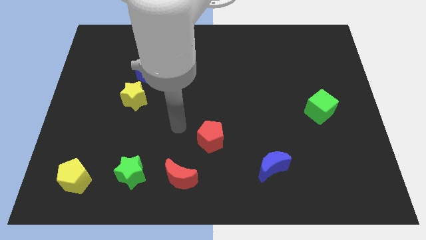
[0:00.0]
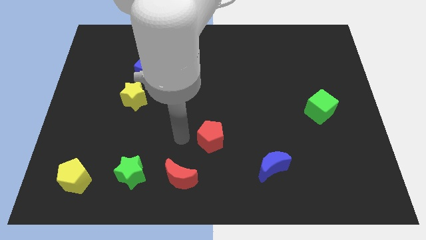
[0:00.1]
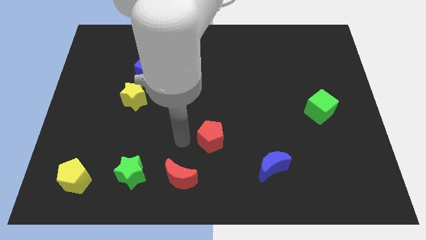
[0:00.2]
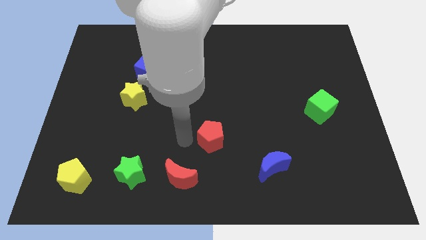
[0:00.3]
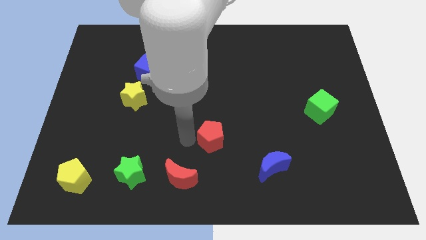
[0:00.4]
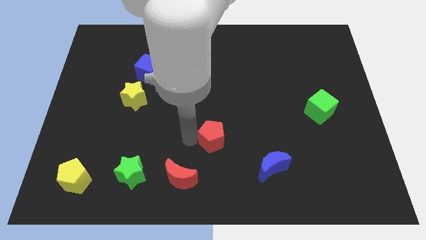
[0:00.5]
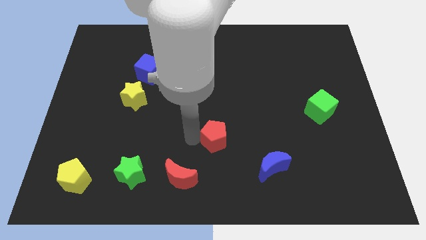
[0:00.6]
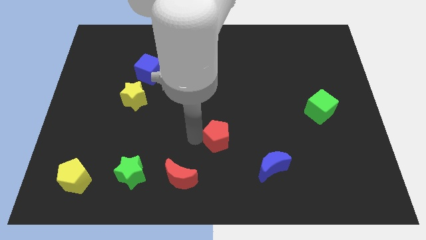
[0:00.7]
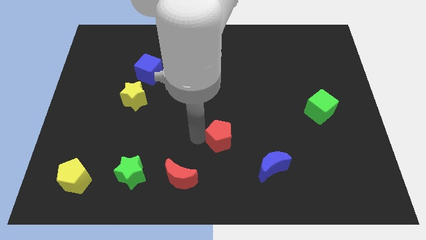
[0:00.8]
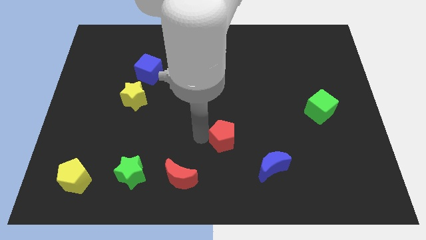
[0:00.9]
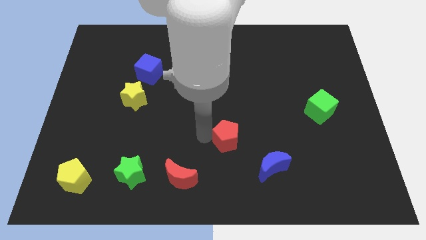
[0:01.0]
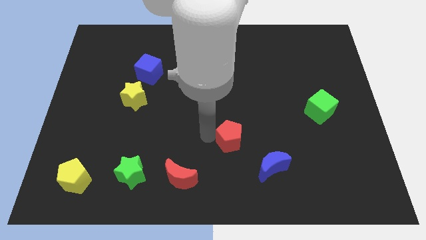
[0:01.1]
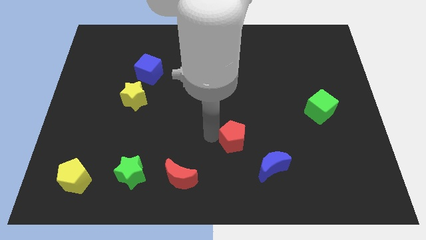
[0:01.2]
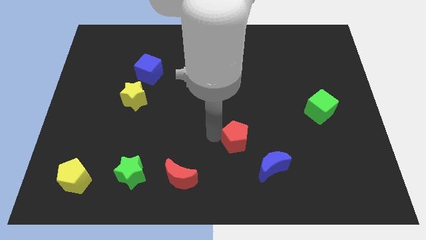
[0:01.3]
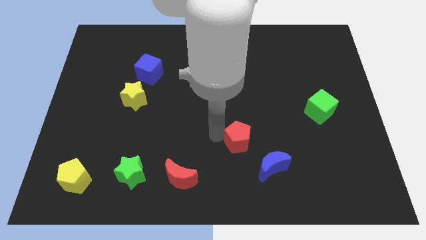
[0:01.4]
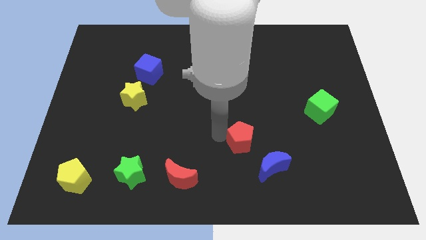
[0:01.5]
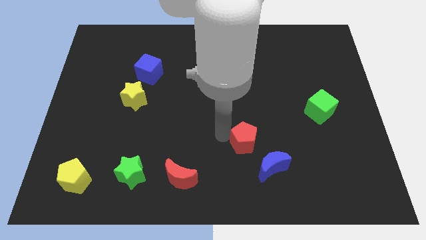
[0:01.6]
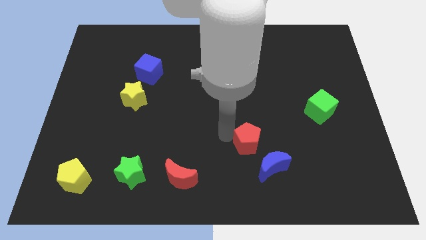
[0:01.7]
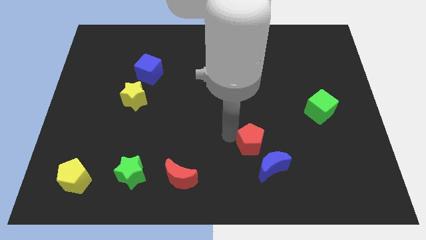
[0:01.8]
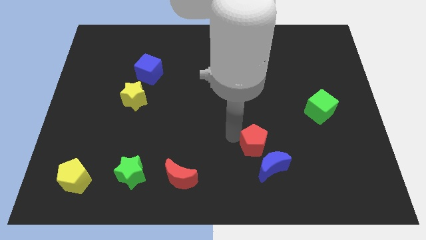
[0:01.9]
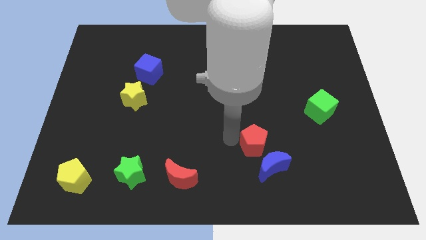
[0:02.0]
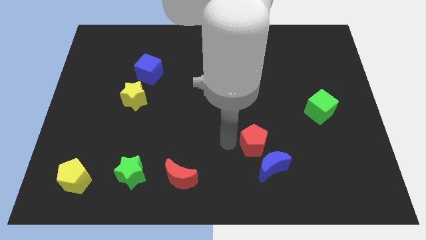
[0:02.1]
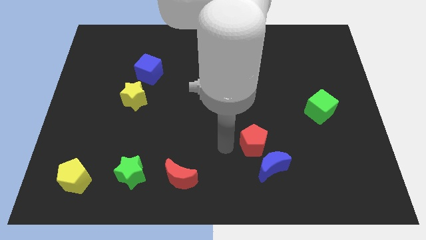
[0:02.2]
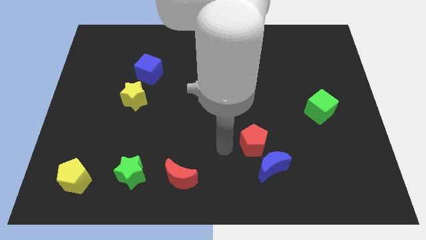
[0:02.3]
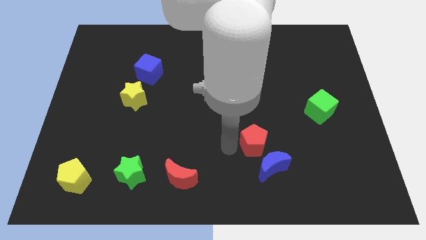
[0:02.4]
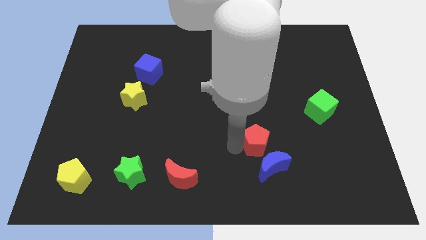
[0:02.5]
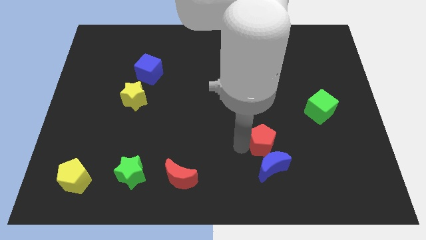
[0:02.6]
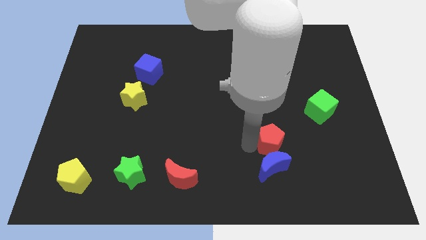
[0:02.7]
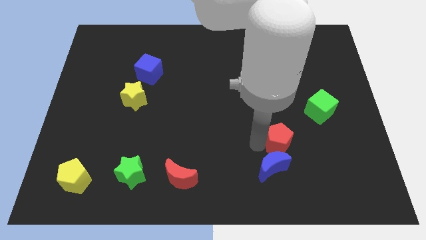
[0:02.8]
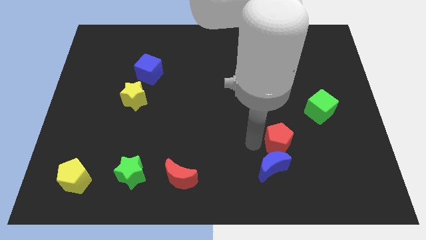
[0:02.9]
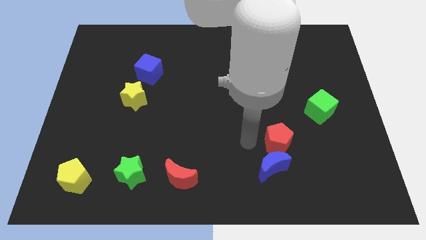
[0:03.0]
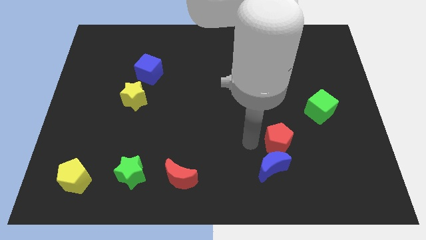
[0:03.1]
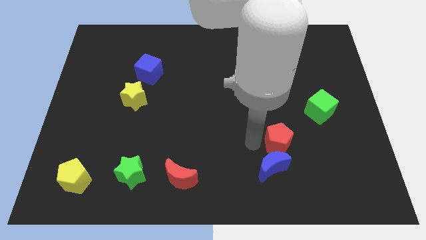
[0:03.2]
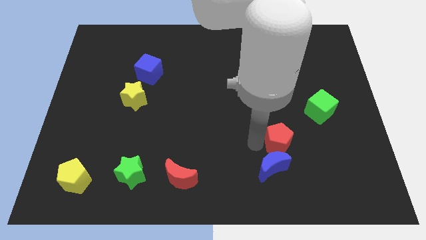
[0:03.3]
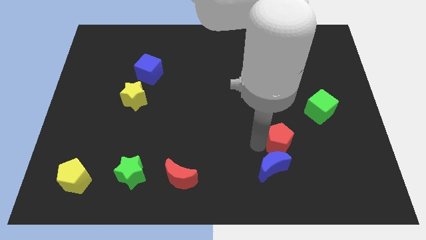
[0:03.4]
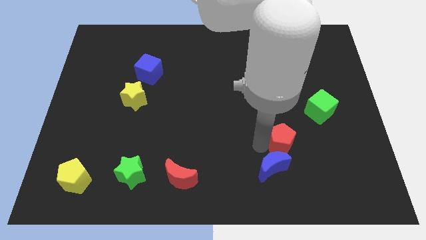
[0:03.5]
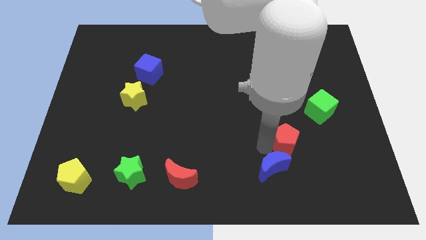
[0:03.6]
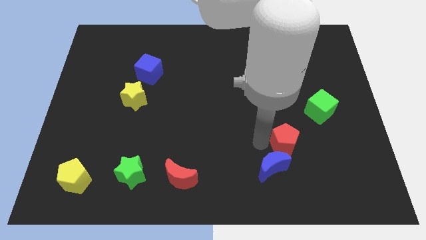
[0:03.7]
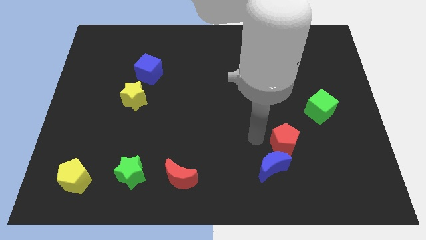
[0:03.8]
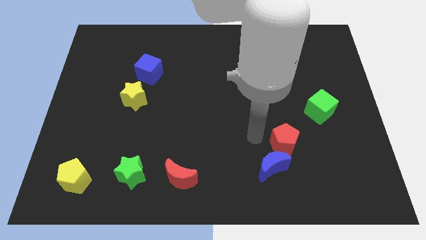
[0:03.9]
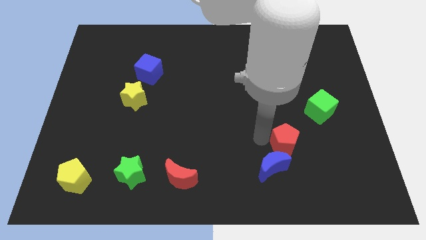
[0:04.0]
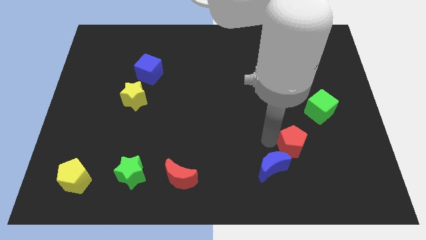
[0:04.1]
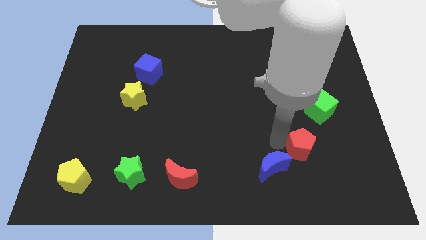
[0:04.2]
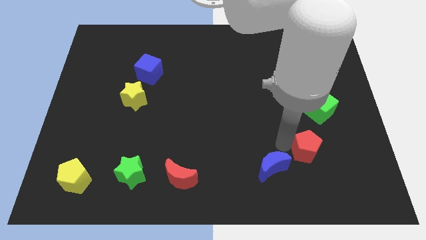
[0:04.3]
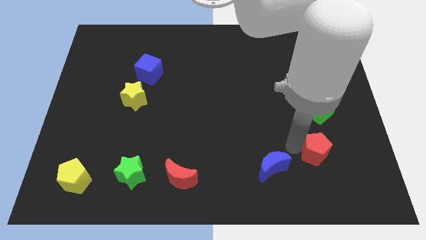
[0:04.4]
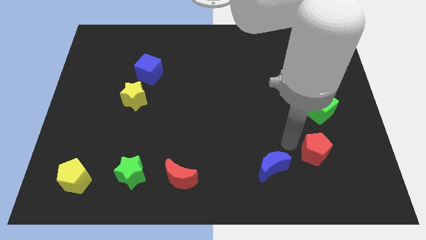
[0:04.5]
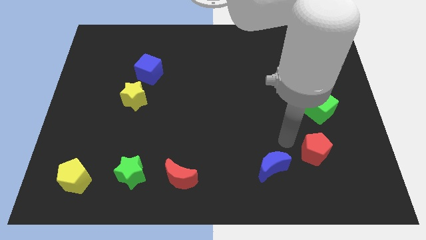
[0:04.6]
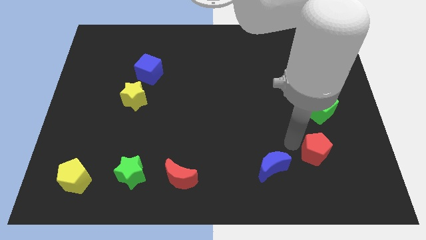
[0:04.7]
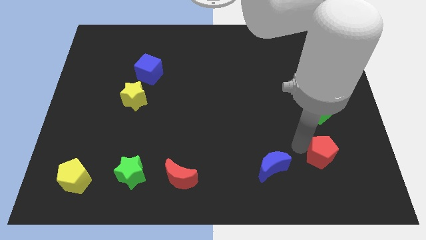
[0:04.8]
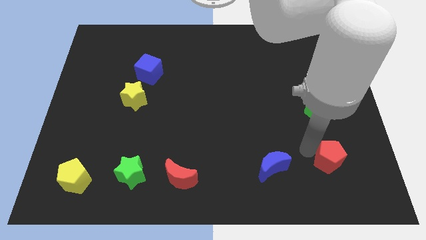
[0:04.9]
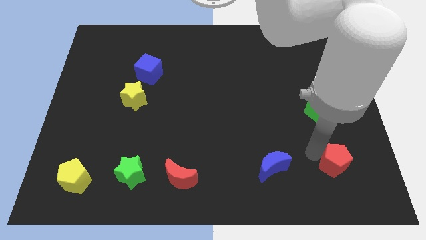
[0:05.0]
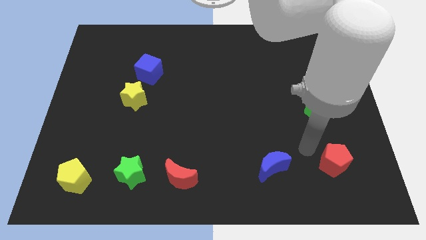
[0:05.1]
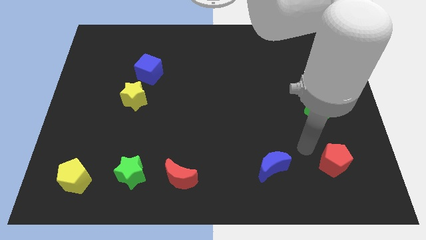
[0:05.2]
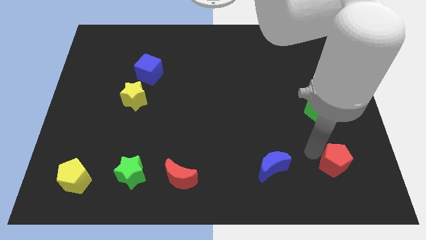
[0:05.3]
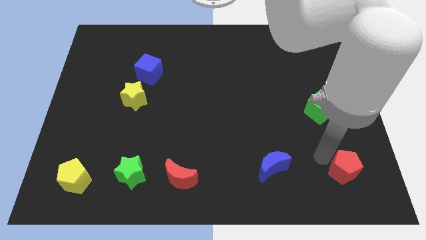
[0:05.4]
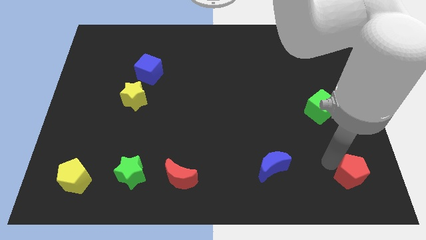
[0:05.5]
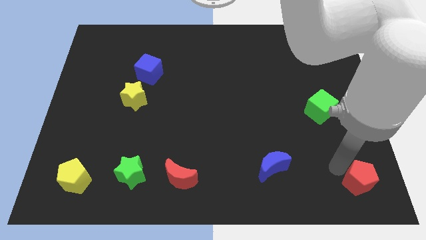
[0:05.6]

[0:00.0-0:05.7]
put the red pentagon to the bottom right
